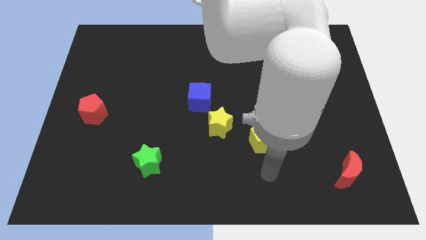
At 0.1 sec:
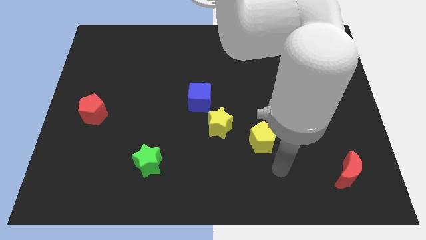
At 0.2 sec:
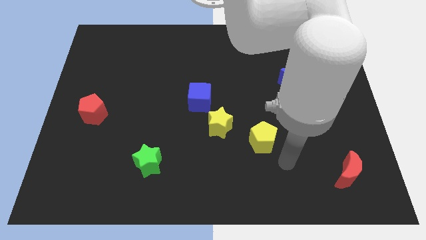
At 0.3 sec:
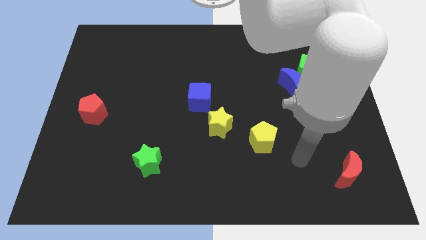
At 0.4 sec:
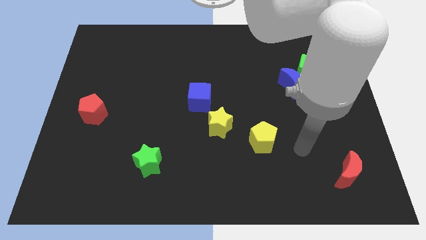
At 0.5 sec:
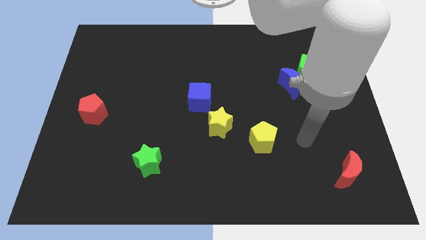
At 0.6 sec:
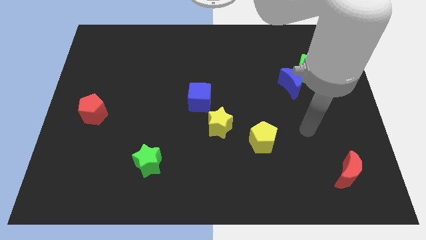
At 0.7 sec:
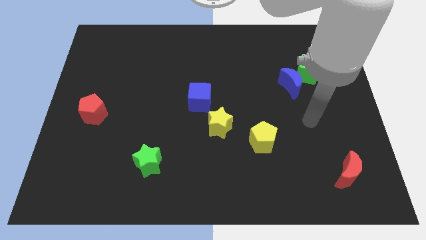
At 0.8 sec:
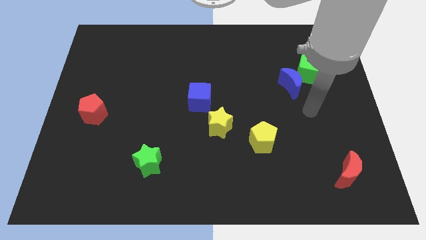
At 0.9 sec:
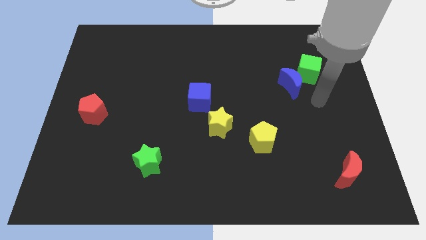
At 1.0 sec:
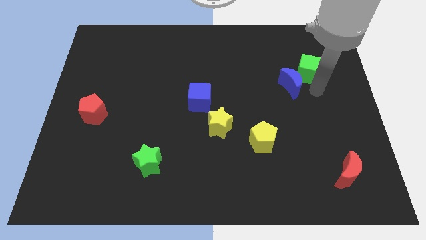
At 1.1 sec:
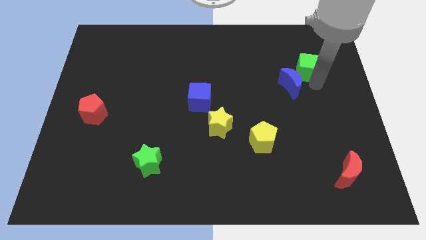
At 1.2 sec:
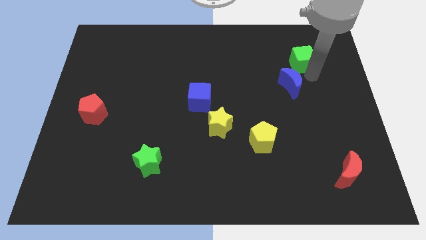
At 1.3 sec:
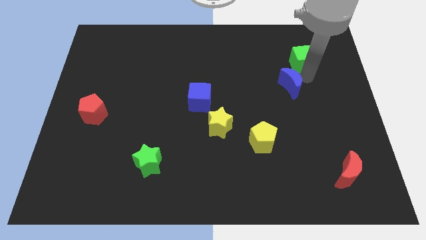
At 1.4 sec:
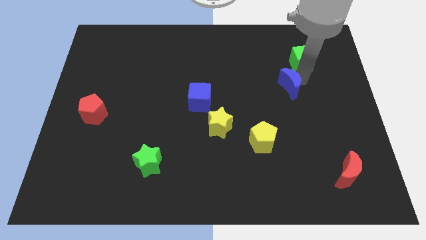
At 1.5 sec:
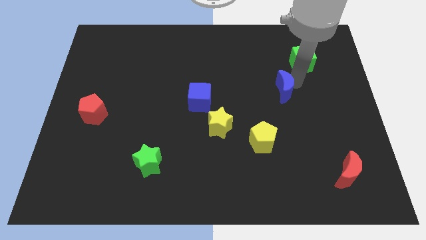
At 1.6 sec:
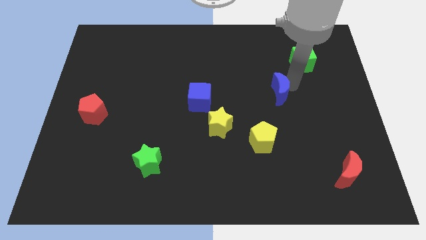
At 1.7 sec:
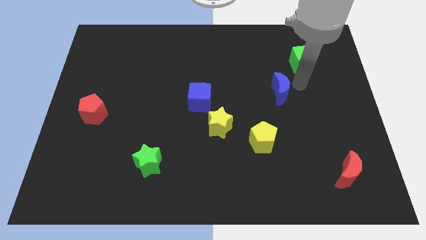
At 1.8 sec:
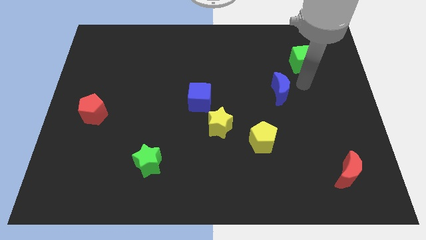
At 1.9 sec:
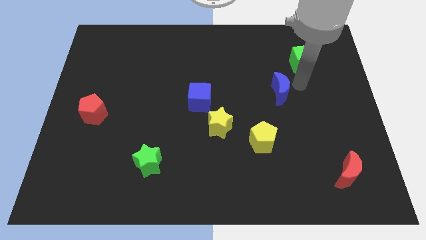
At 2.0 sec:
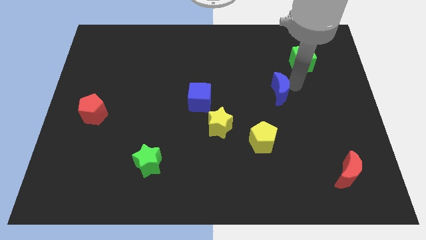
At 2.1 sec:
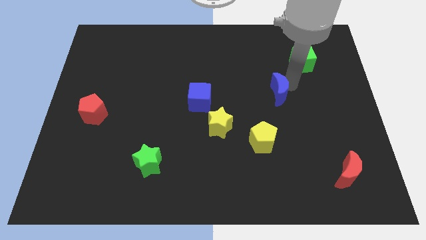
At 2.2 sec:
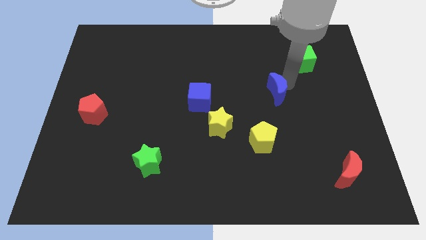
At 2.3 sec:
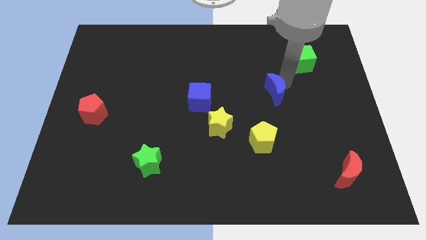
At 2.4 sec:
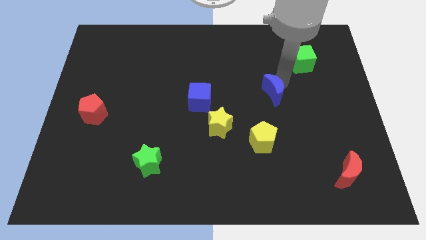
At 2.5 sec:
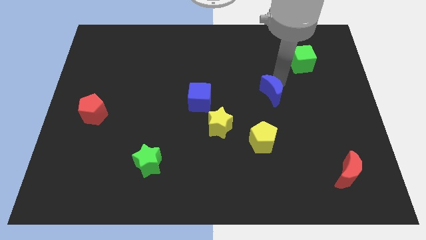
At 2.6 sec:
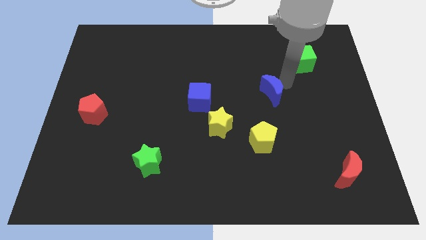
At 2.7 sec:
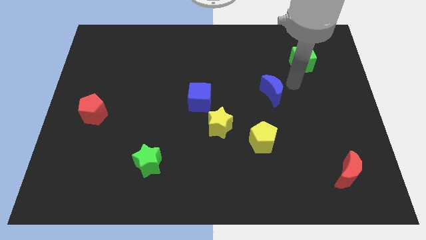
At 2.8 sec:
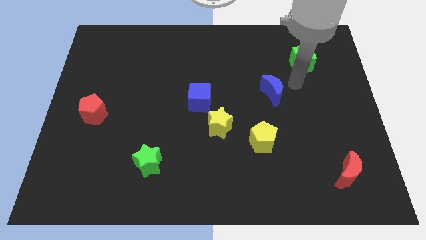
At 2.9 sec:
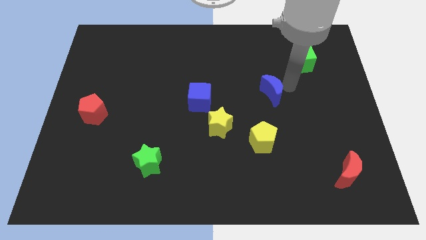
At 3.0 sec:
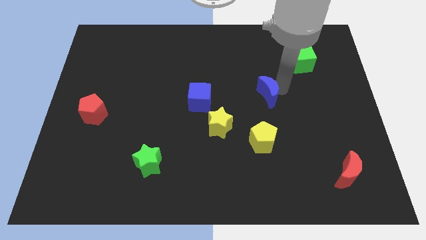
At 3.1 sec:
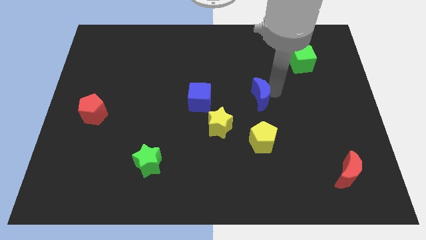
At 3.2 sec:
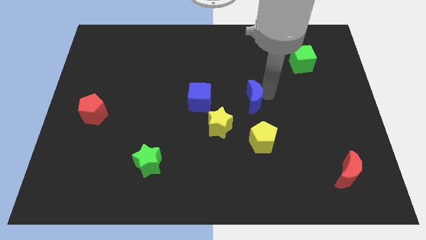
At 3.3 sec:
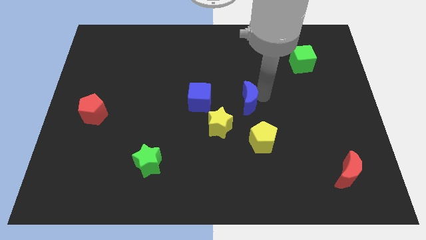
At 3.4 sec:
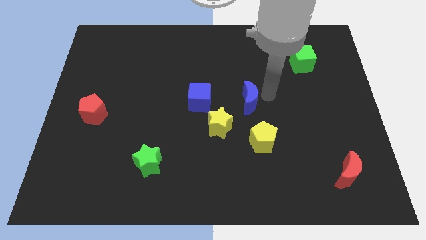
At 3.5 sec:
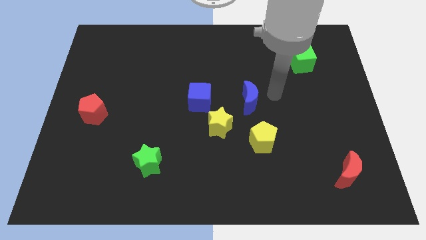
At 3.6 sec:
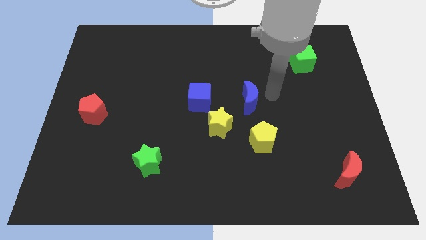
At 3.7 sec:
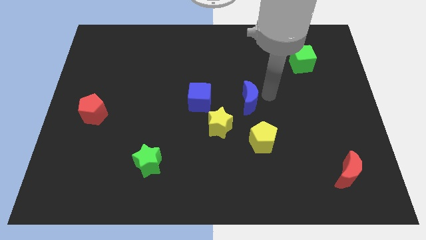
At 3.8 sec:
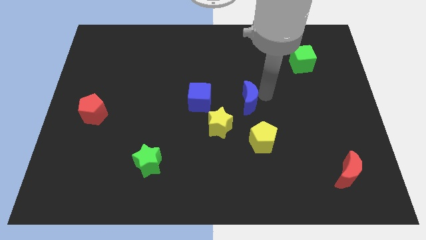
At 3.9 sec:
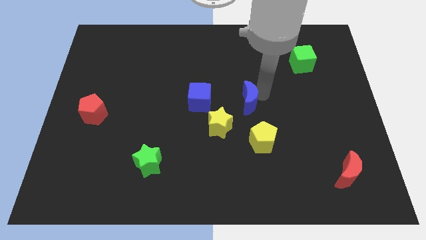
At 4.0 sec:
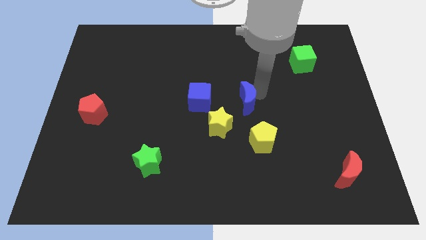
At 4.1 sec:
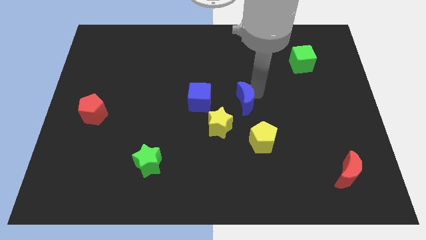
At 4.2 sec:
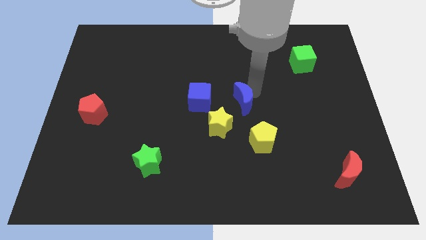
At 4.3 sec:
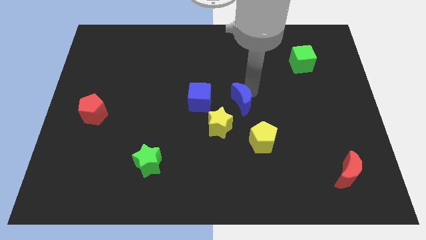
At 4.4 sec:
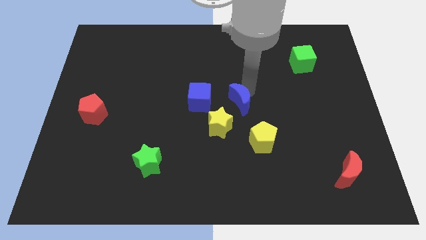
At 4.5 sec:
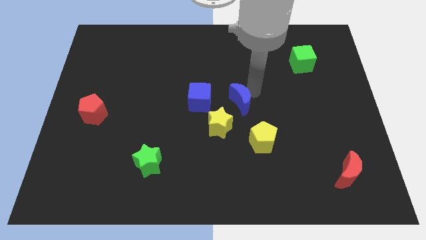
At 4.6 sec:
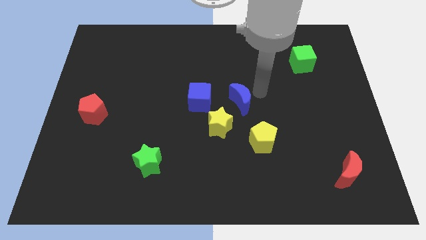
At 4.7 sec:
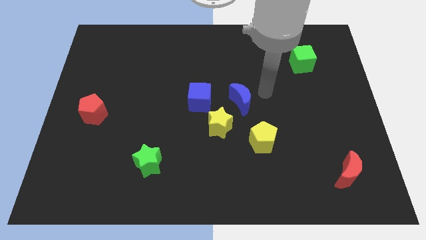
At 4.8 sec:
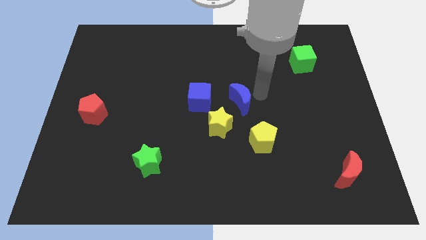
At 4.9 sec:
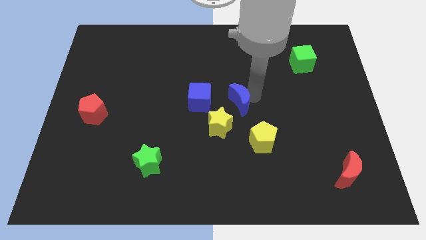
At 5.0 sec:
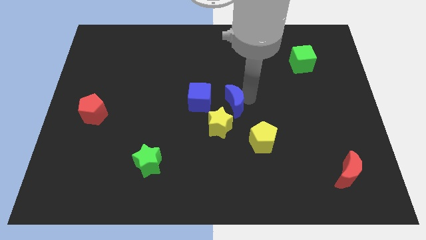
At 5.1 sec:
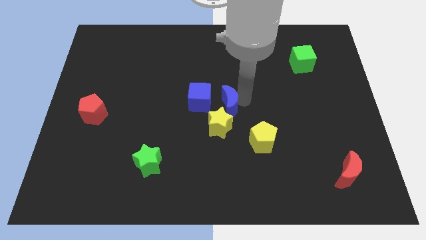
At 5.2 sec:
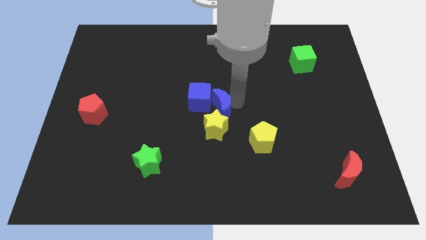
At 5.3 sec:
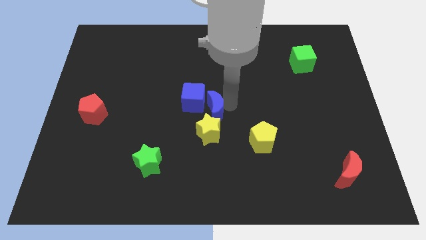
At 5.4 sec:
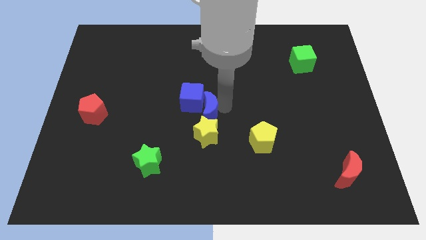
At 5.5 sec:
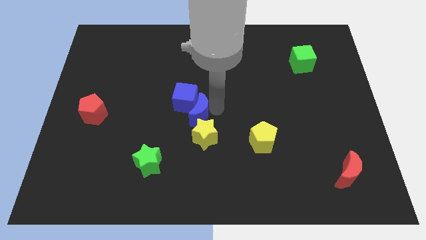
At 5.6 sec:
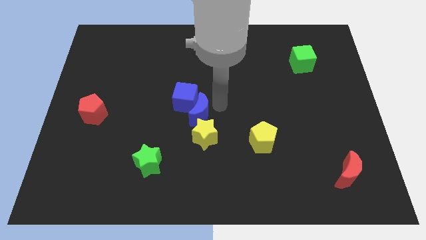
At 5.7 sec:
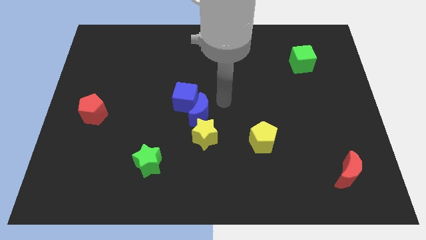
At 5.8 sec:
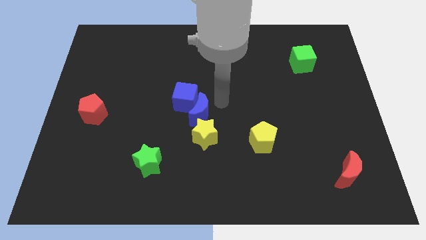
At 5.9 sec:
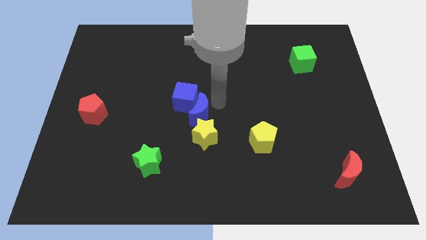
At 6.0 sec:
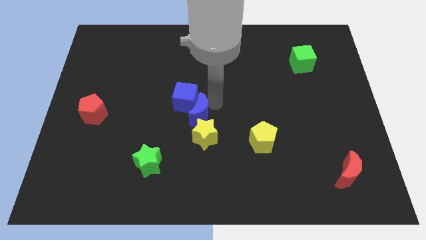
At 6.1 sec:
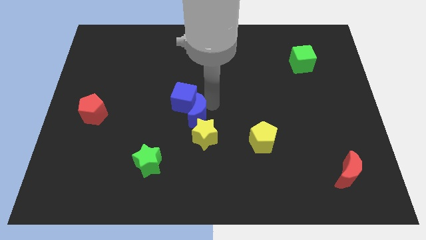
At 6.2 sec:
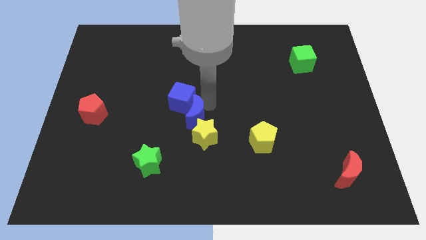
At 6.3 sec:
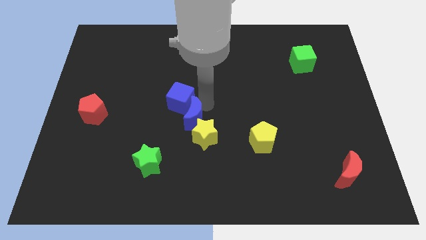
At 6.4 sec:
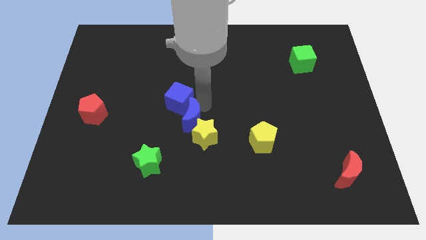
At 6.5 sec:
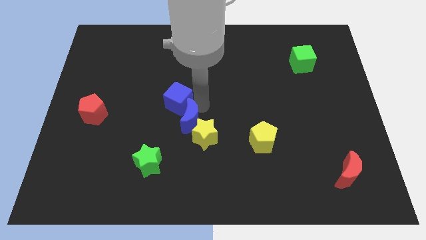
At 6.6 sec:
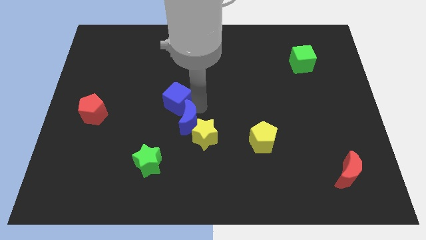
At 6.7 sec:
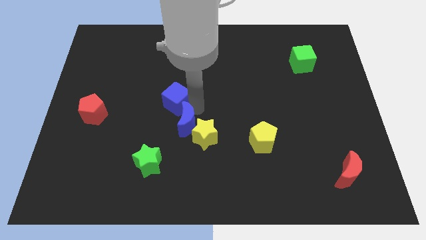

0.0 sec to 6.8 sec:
move the blue moon to the top right of the green star

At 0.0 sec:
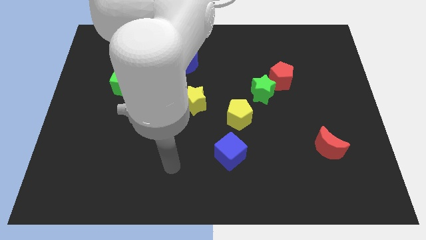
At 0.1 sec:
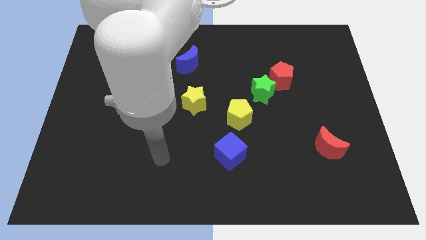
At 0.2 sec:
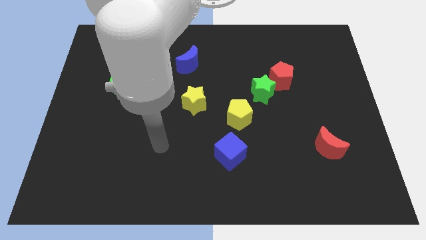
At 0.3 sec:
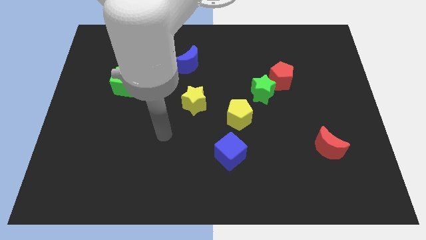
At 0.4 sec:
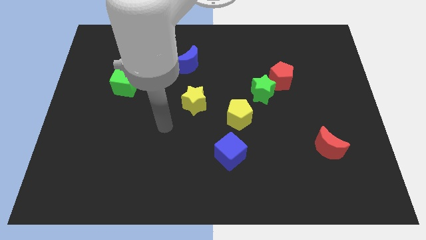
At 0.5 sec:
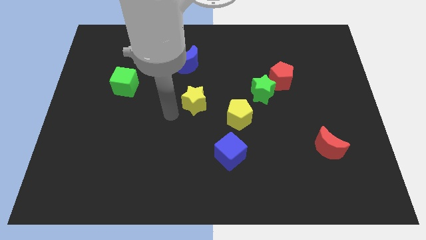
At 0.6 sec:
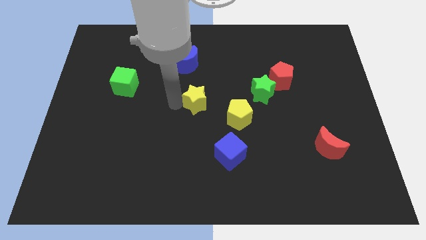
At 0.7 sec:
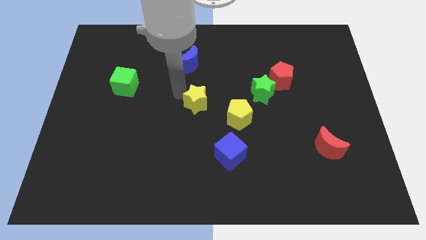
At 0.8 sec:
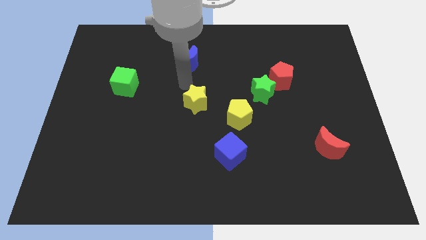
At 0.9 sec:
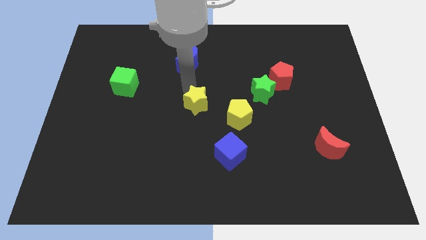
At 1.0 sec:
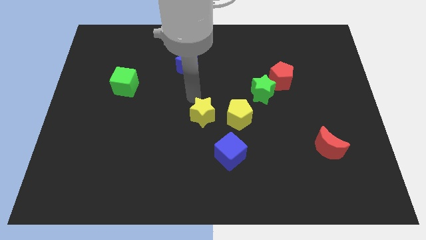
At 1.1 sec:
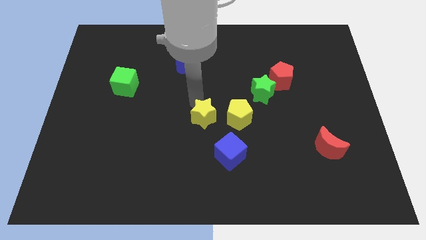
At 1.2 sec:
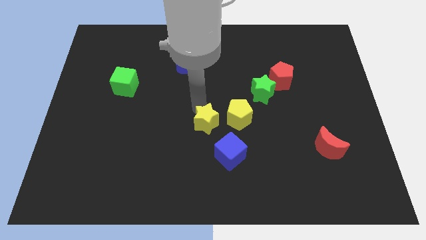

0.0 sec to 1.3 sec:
move the yellow star to the bottom left side of the yellow pentagon
